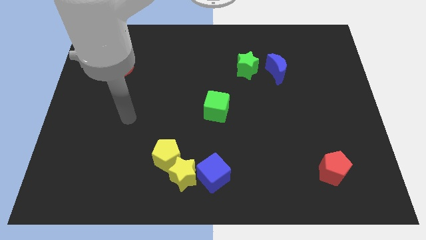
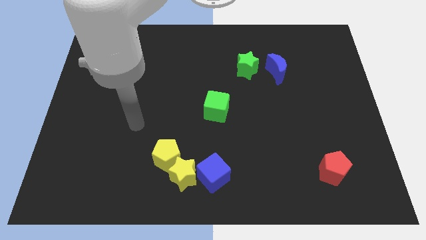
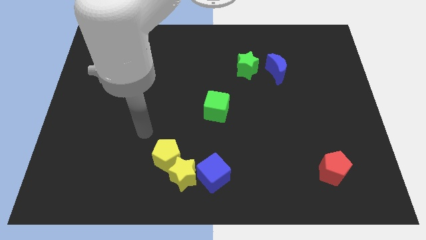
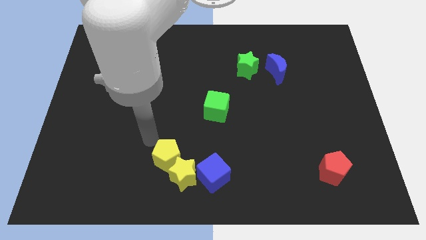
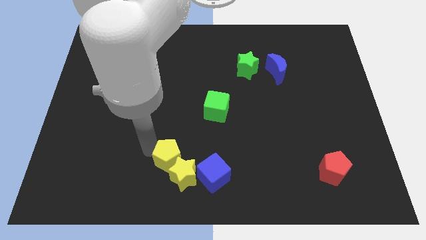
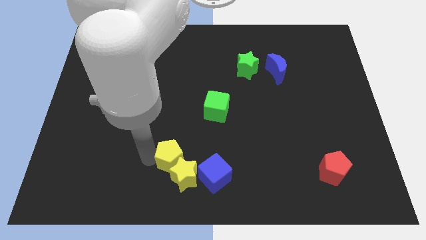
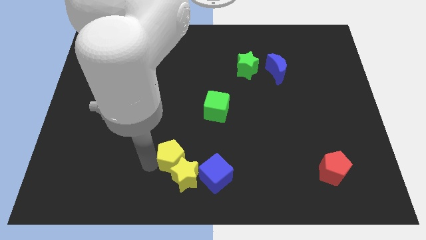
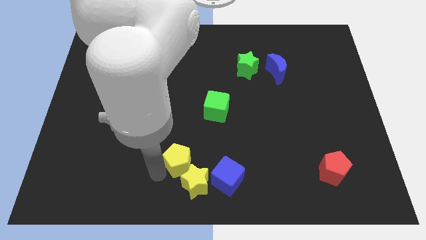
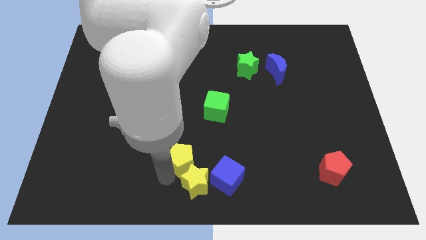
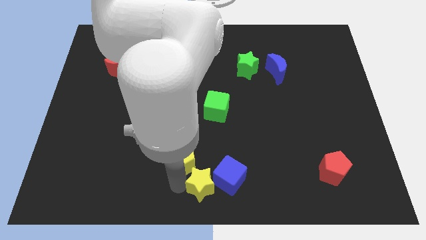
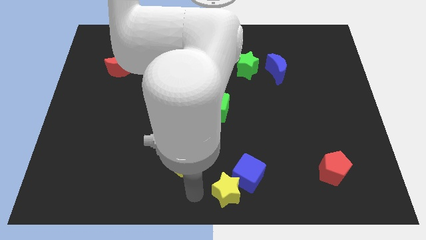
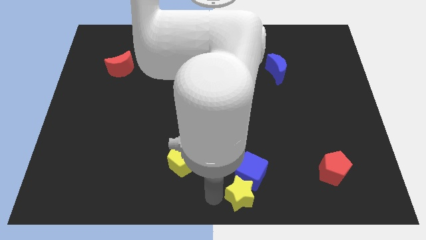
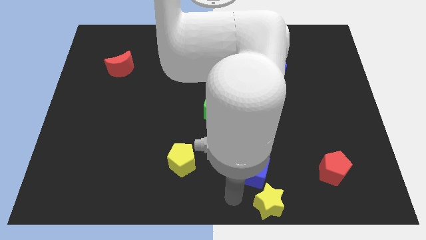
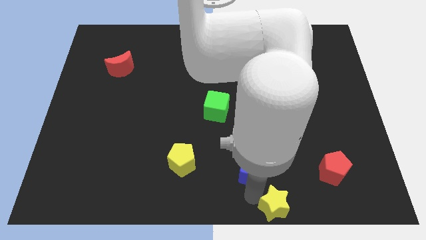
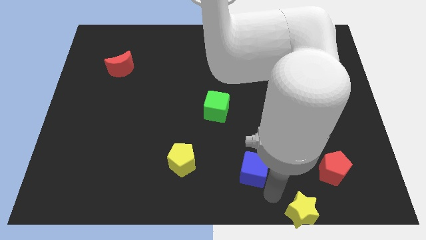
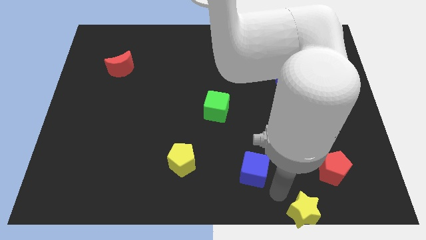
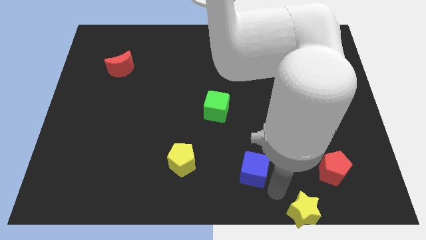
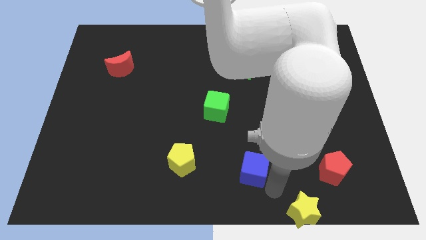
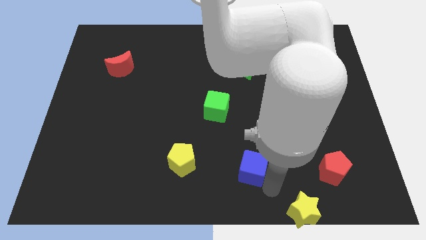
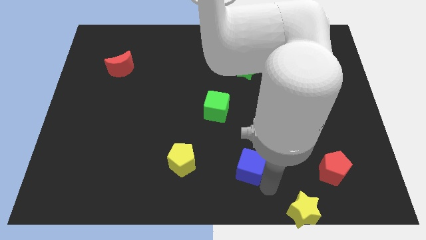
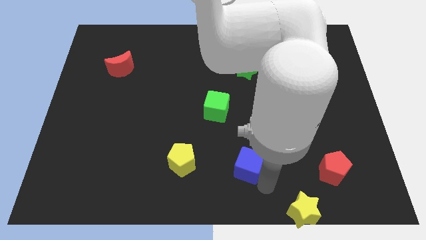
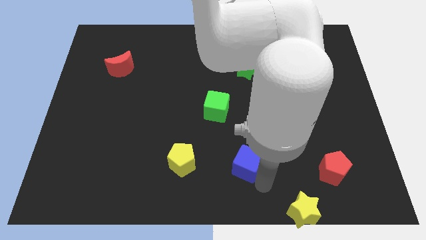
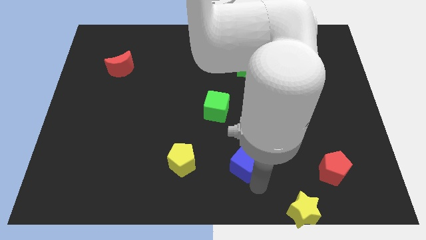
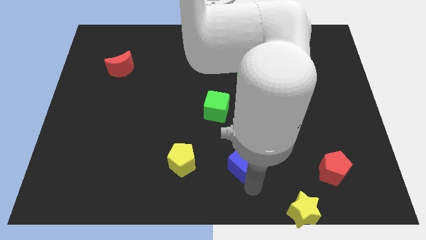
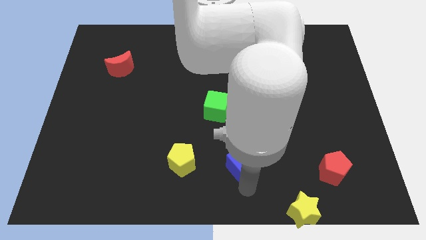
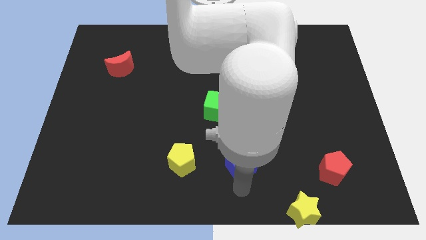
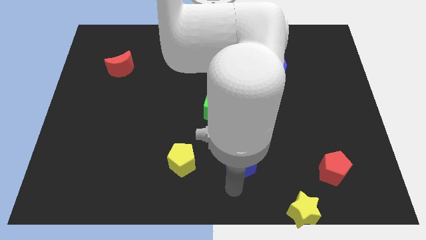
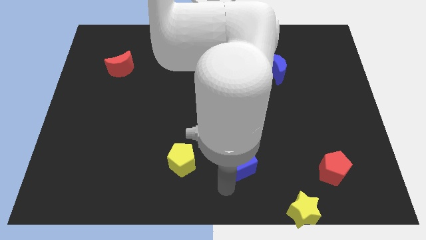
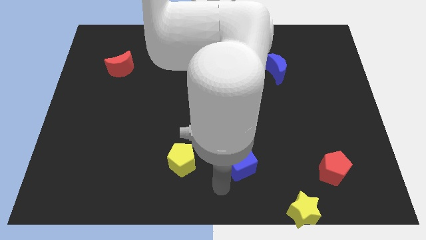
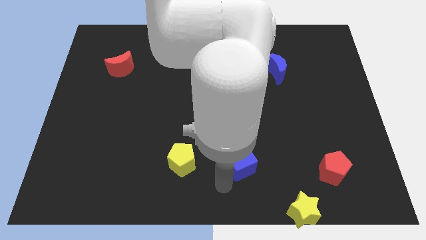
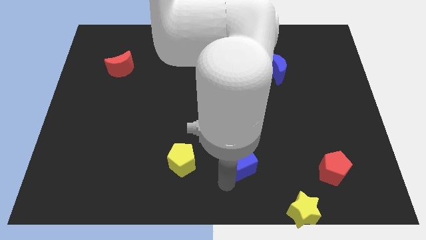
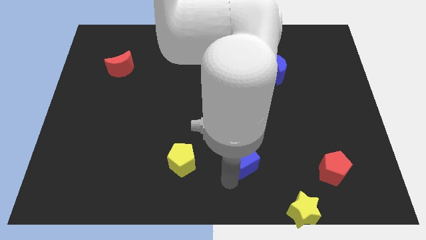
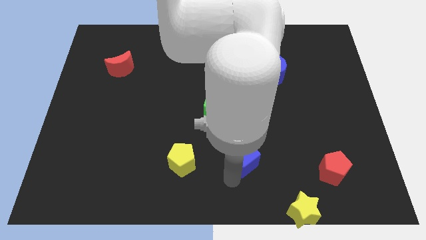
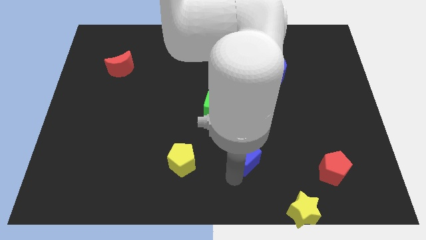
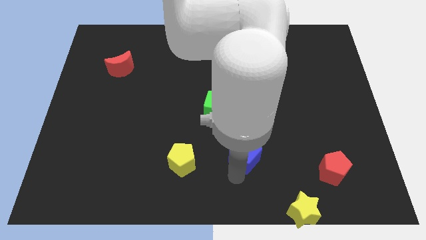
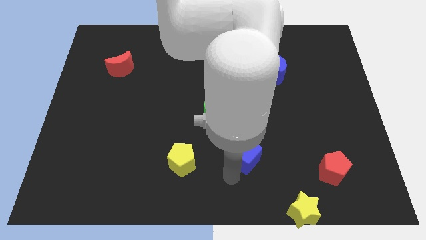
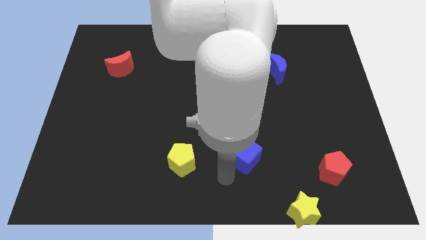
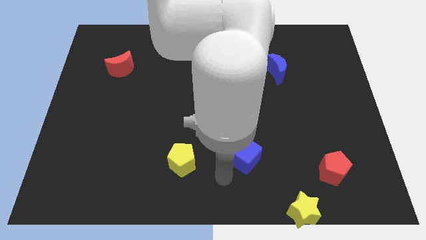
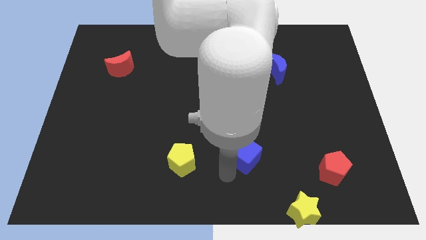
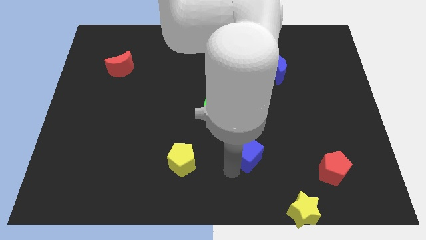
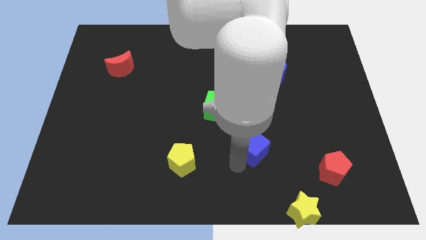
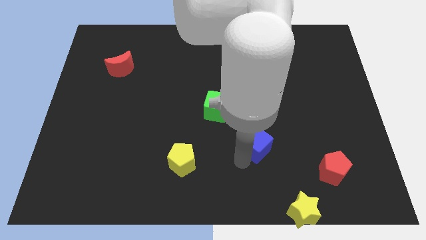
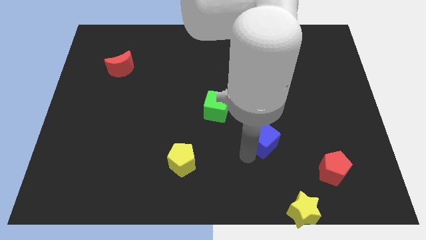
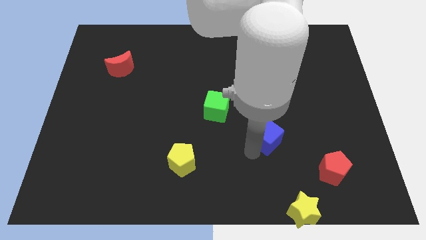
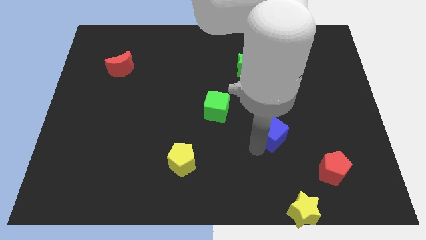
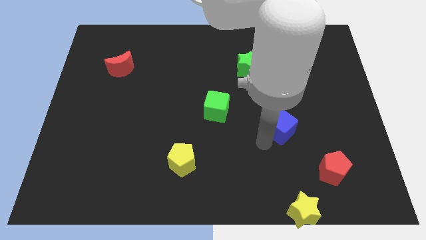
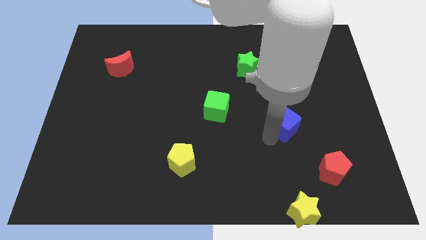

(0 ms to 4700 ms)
slide the blue cube diagonally up and right

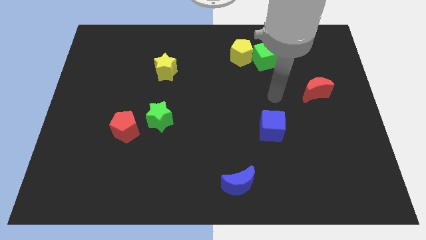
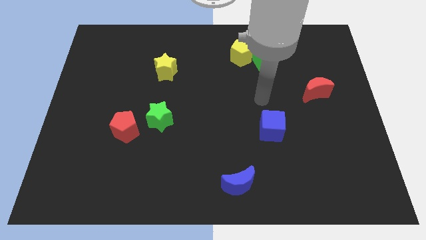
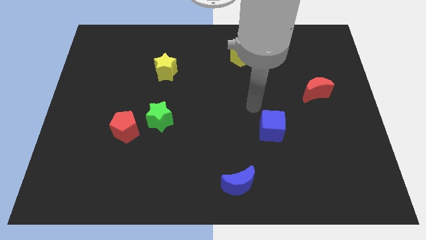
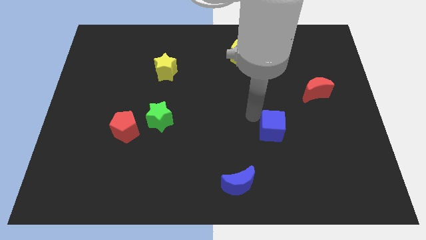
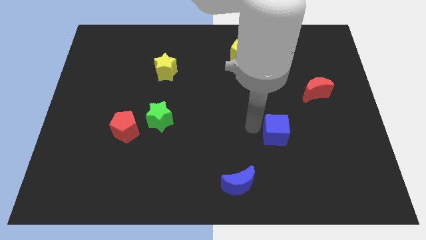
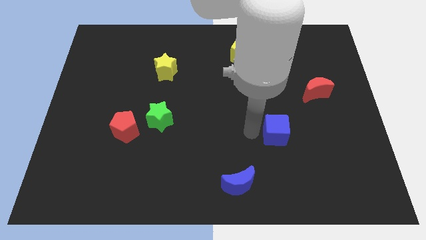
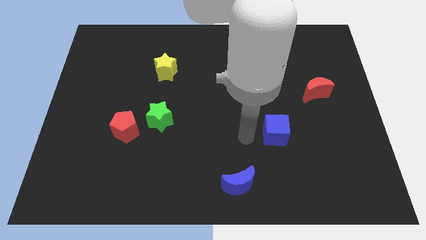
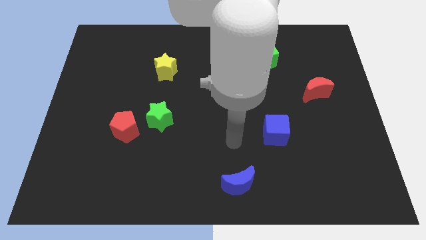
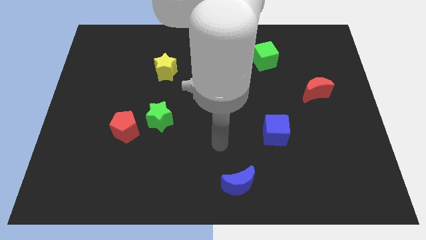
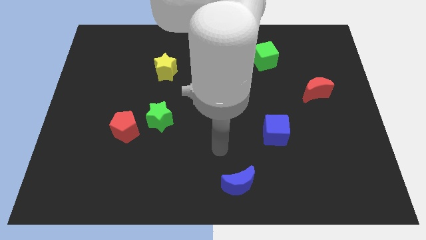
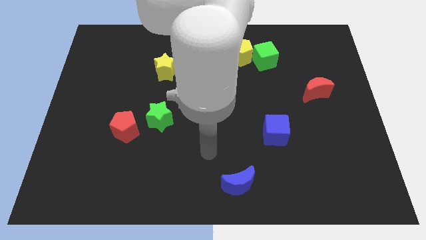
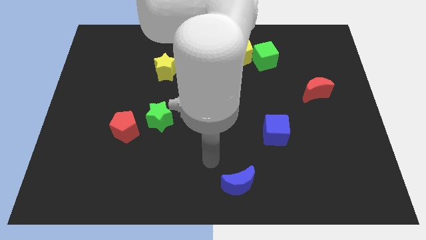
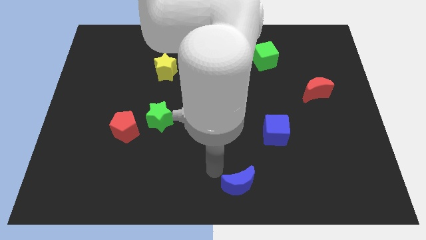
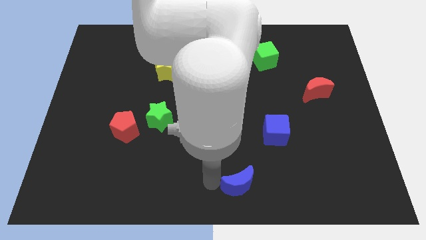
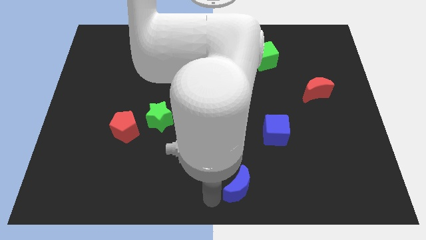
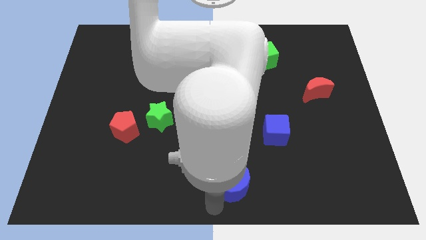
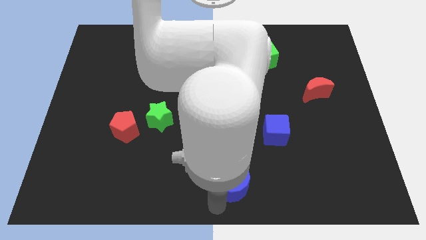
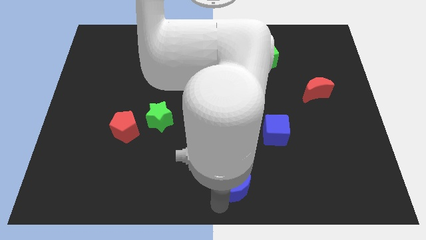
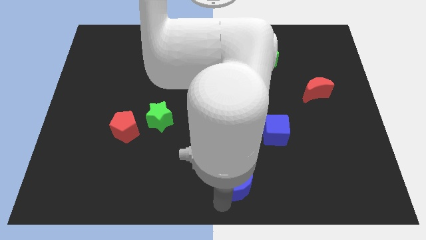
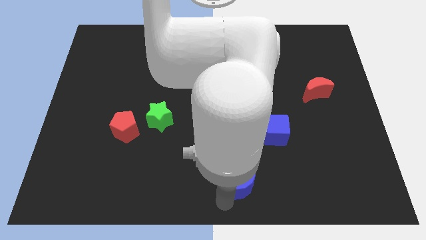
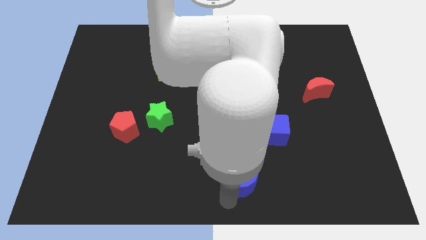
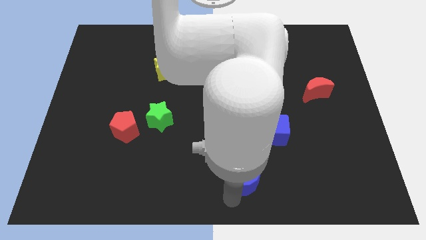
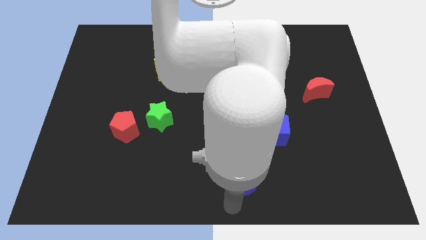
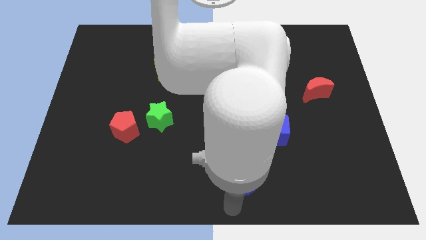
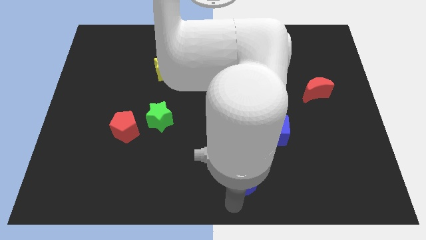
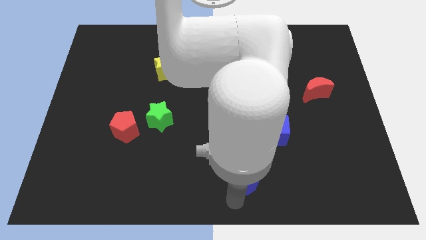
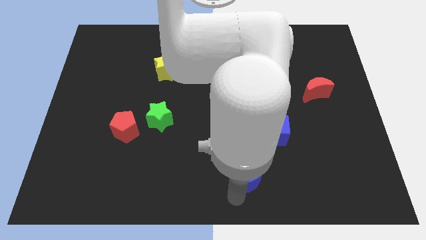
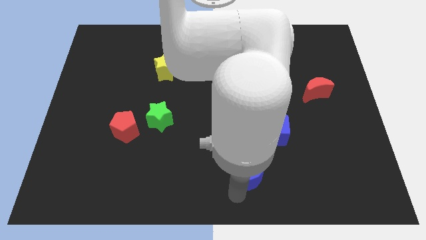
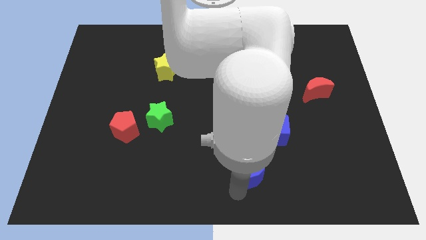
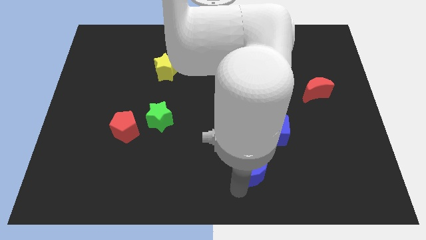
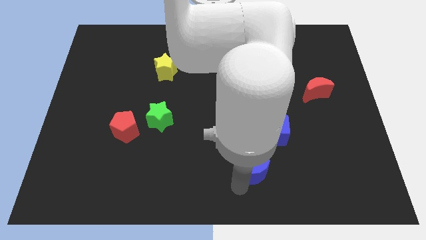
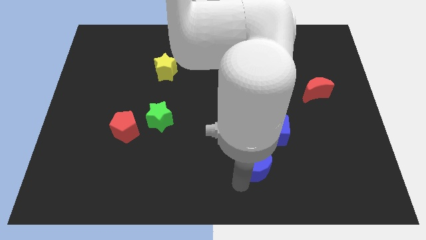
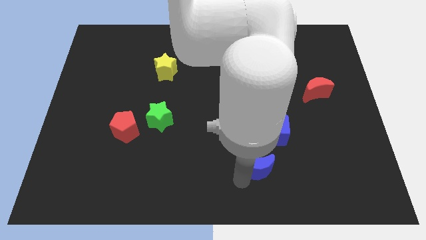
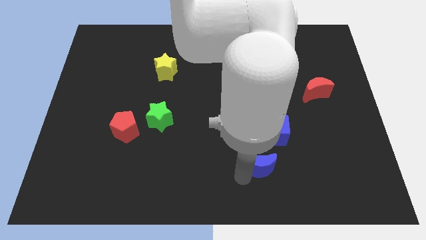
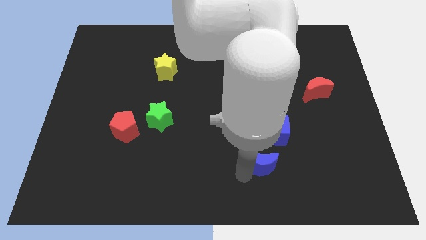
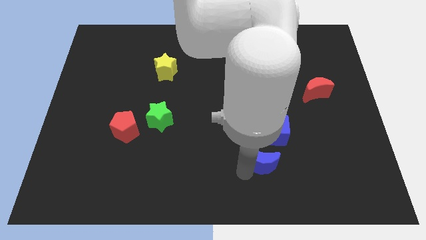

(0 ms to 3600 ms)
move the blue moon slightly diagonally up and right
